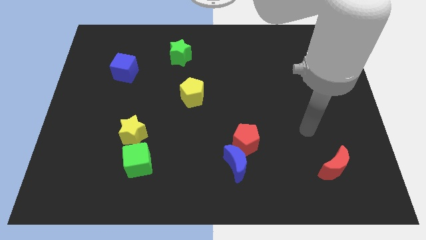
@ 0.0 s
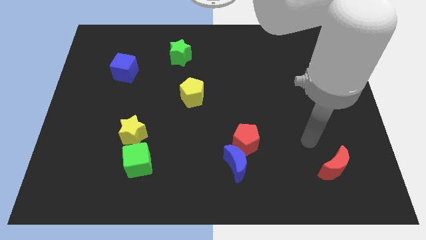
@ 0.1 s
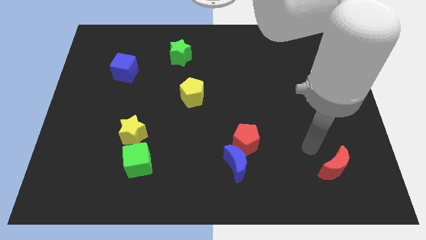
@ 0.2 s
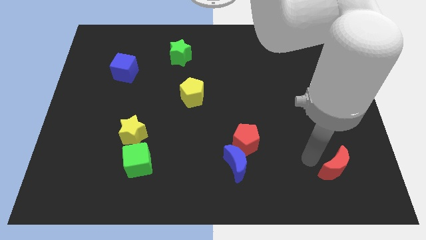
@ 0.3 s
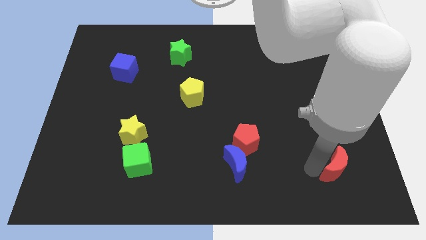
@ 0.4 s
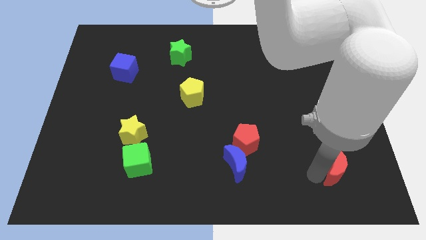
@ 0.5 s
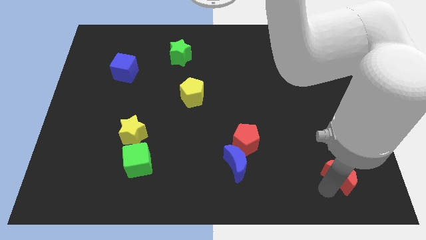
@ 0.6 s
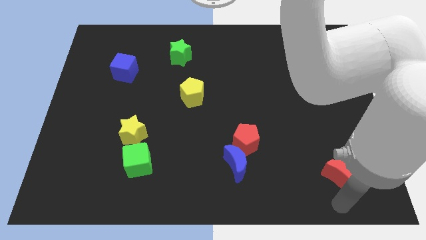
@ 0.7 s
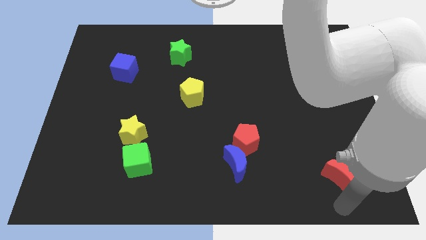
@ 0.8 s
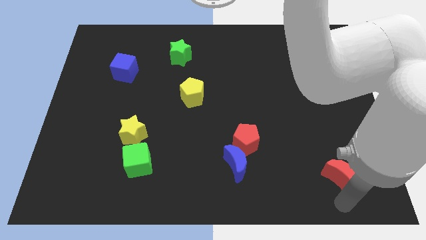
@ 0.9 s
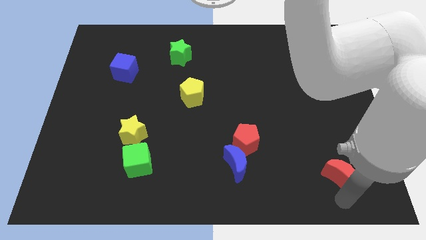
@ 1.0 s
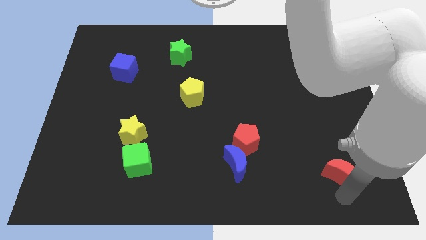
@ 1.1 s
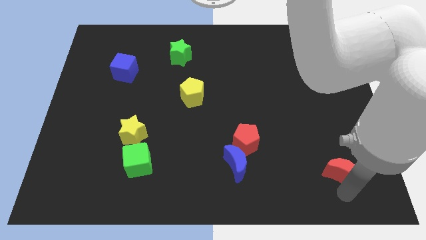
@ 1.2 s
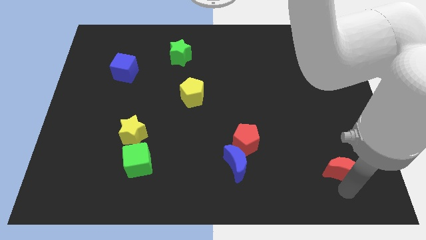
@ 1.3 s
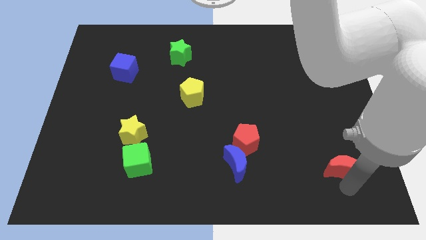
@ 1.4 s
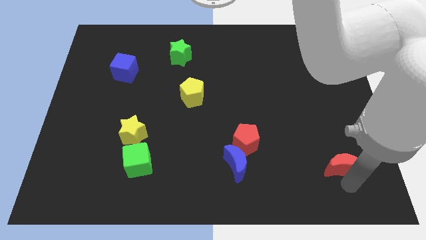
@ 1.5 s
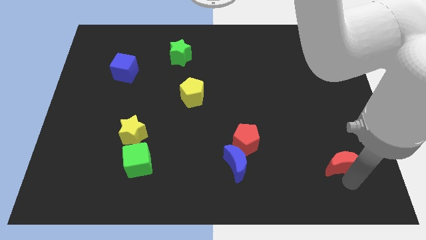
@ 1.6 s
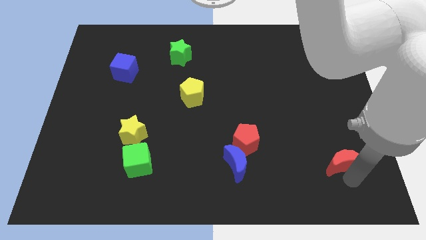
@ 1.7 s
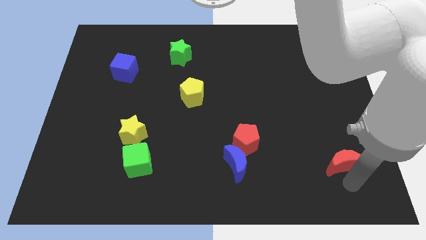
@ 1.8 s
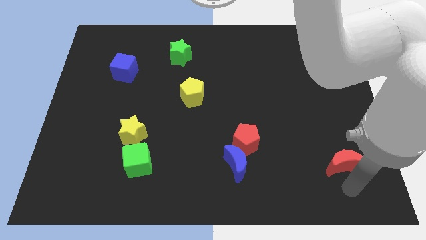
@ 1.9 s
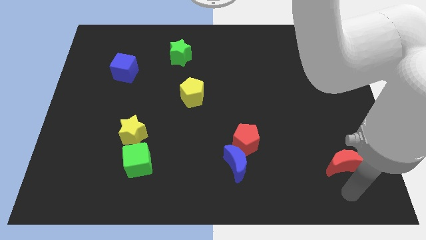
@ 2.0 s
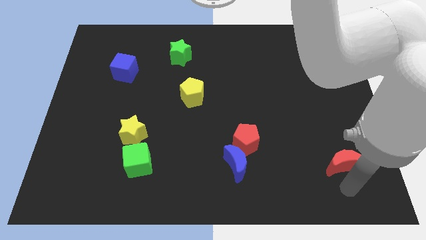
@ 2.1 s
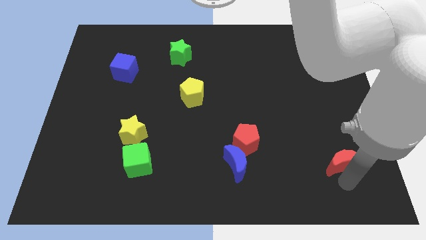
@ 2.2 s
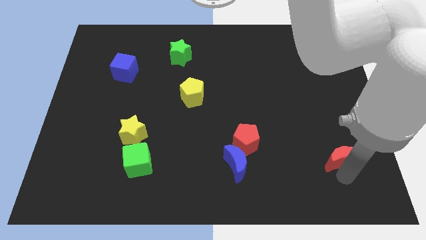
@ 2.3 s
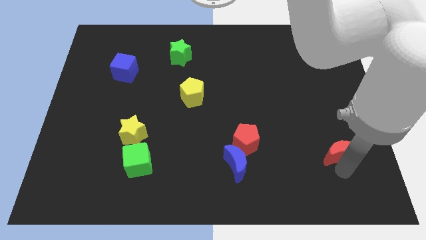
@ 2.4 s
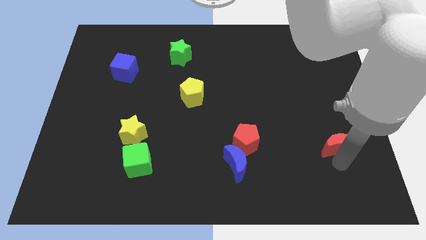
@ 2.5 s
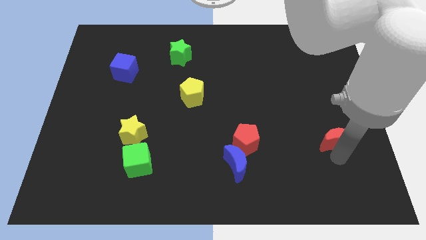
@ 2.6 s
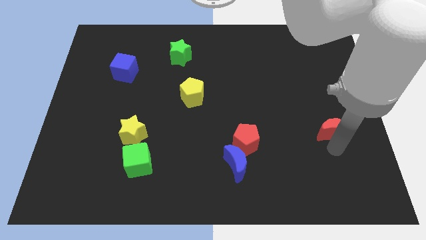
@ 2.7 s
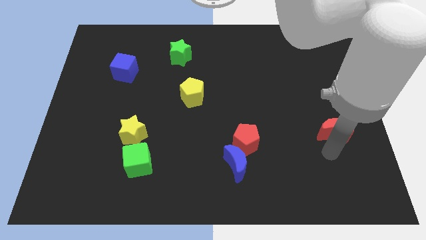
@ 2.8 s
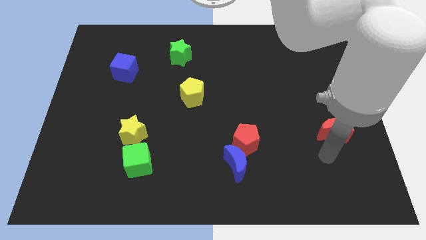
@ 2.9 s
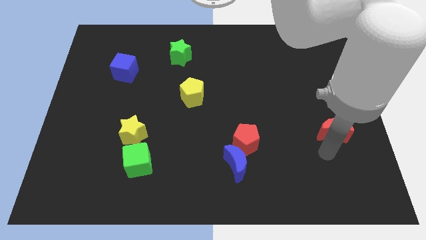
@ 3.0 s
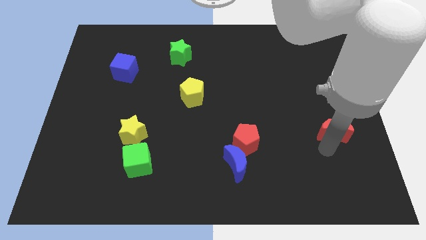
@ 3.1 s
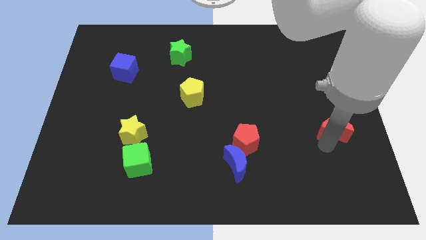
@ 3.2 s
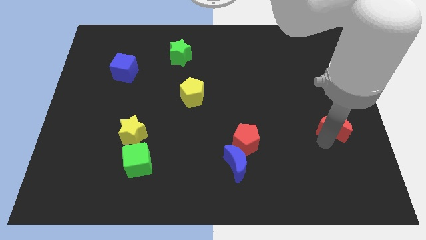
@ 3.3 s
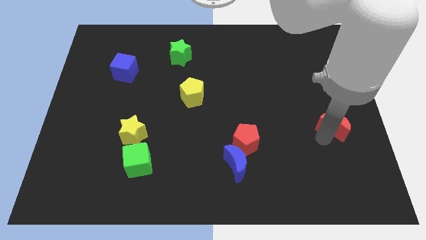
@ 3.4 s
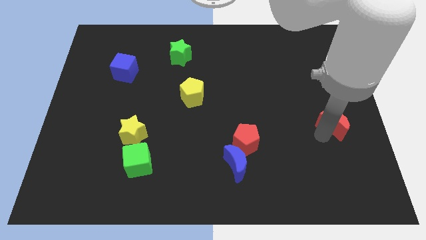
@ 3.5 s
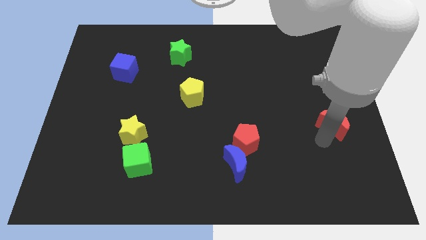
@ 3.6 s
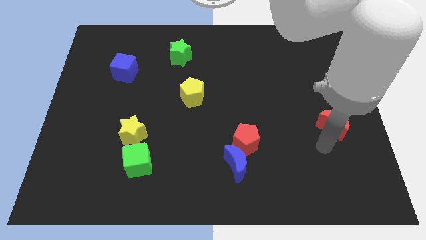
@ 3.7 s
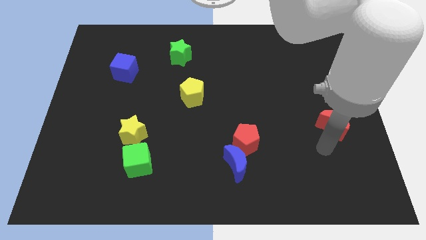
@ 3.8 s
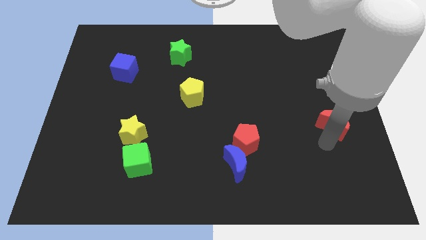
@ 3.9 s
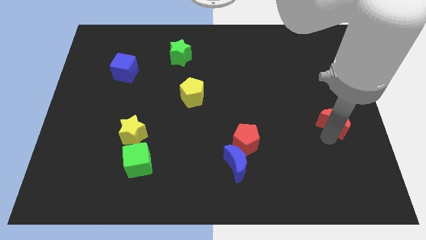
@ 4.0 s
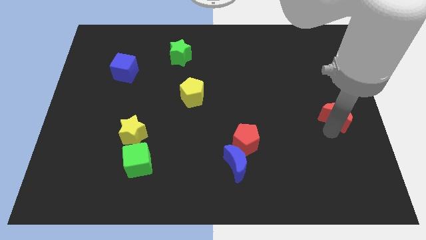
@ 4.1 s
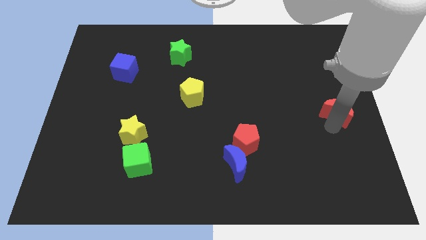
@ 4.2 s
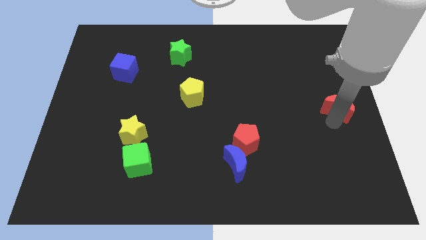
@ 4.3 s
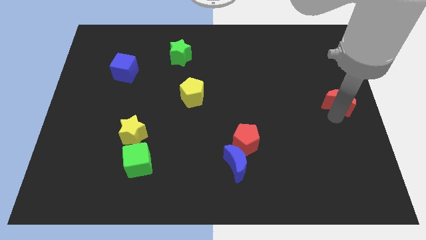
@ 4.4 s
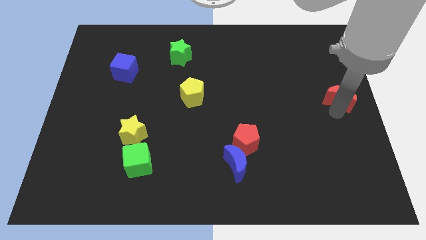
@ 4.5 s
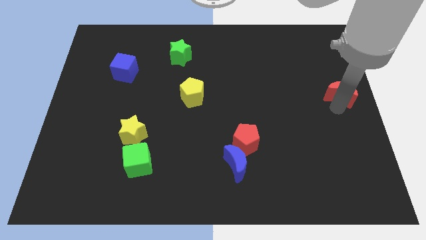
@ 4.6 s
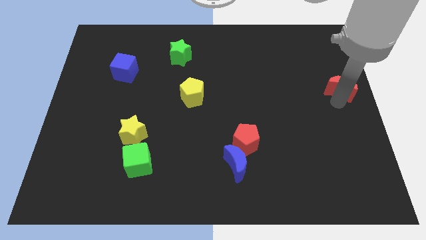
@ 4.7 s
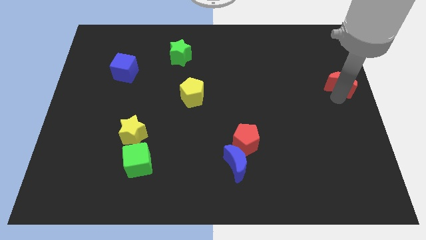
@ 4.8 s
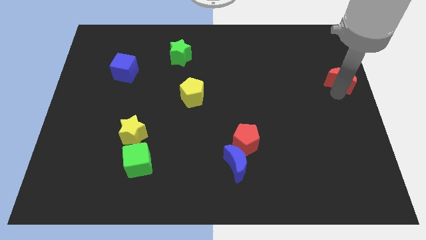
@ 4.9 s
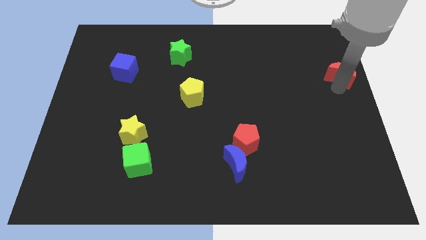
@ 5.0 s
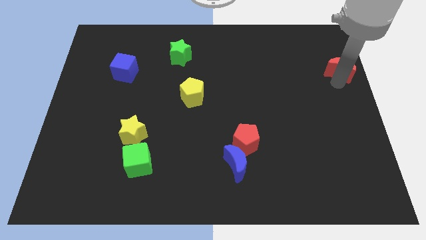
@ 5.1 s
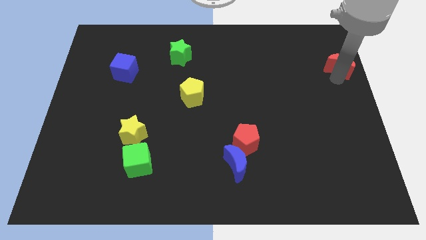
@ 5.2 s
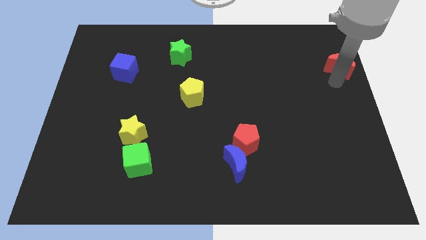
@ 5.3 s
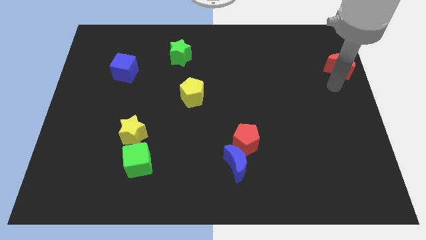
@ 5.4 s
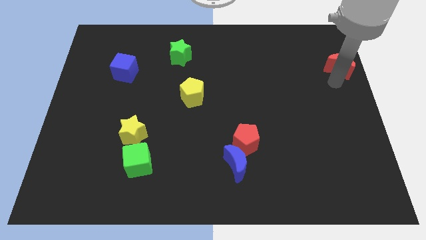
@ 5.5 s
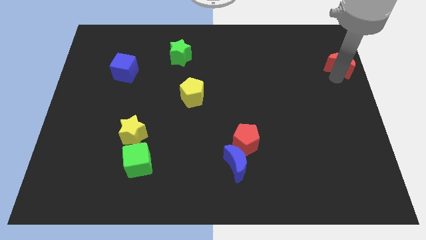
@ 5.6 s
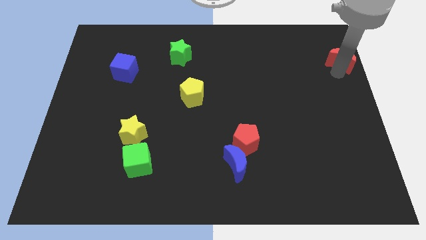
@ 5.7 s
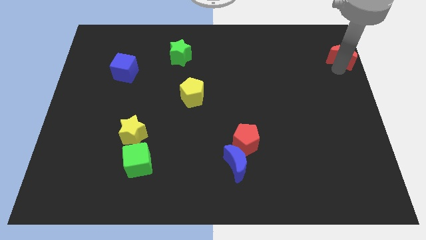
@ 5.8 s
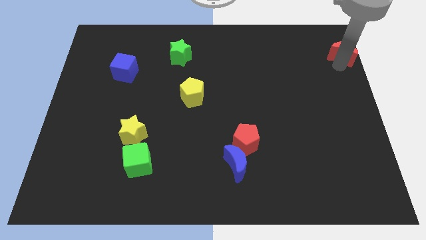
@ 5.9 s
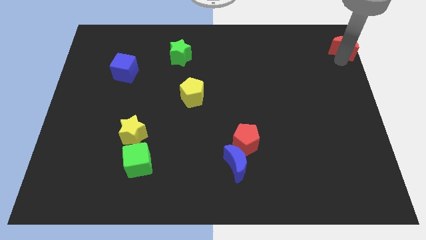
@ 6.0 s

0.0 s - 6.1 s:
push the red moon to the top right
